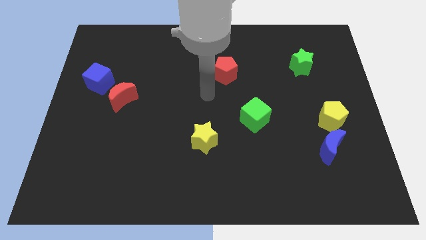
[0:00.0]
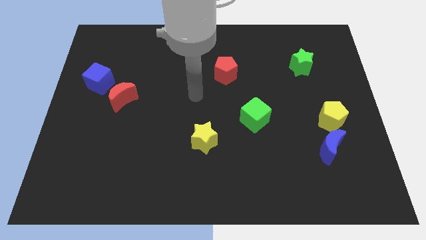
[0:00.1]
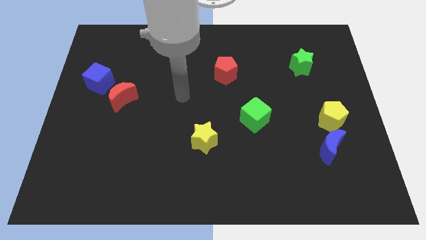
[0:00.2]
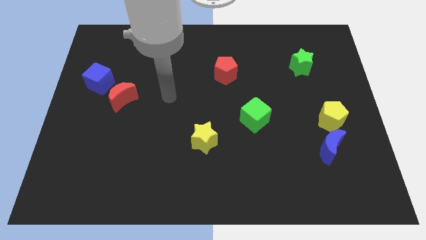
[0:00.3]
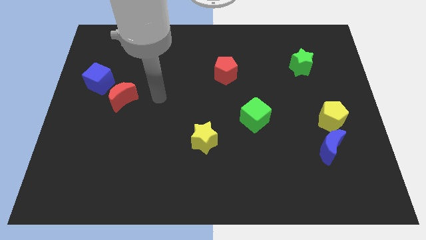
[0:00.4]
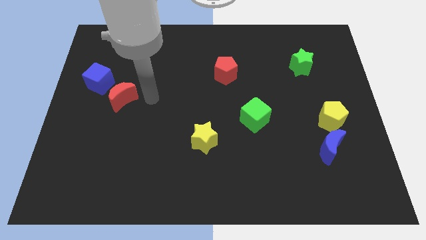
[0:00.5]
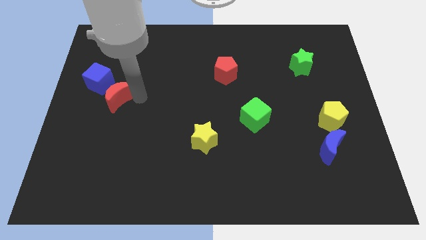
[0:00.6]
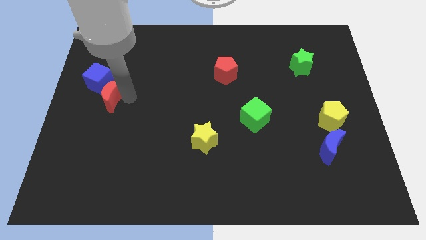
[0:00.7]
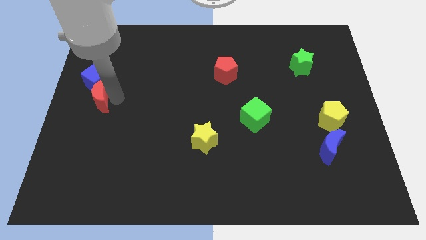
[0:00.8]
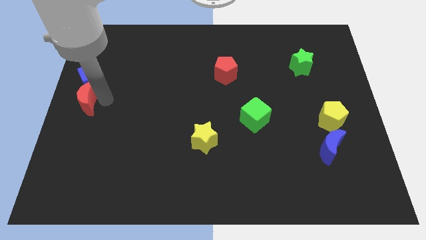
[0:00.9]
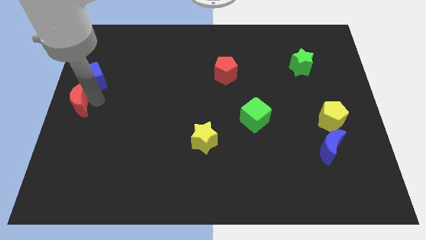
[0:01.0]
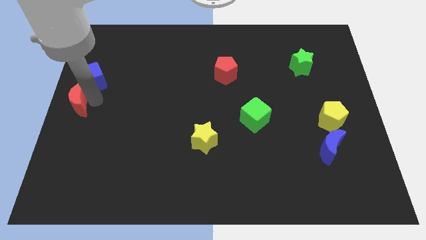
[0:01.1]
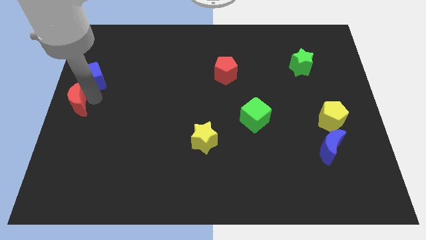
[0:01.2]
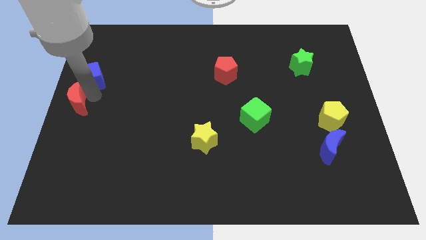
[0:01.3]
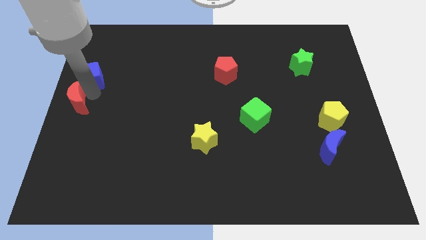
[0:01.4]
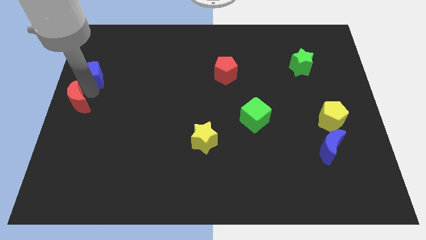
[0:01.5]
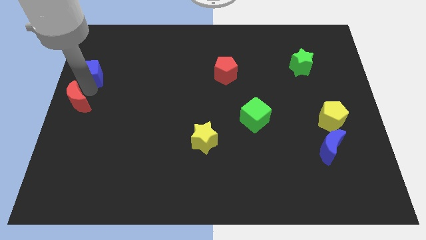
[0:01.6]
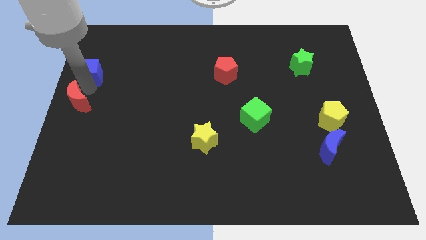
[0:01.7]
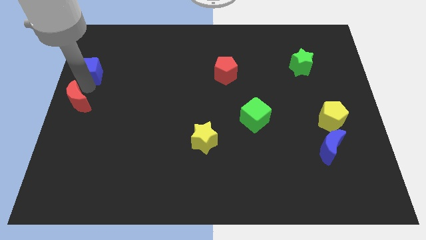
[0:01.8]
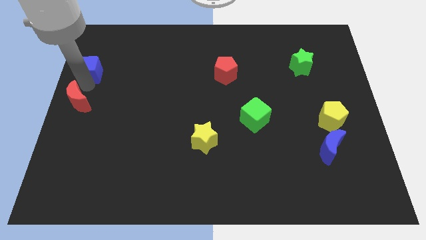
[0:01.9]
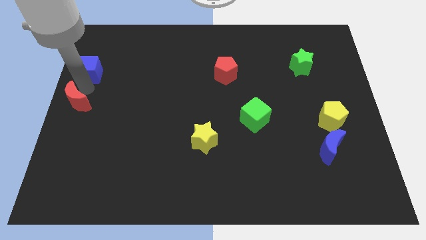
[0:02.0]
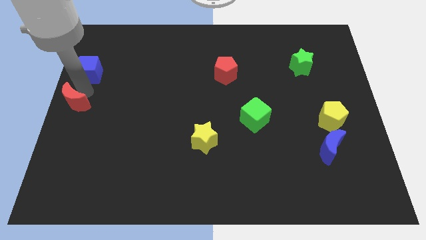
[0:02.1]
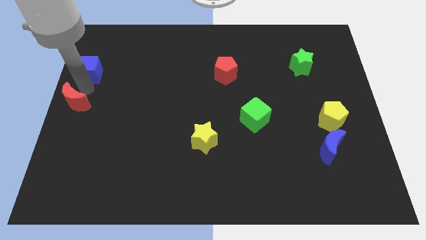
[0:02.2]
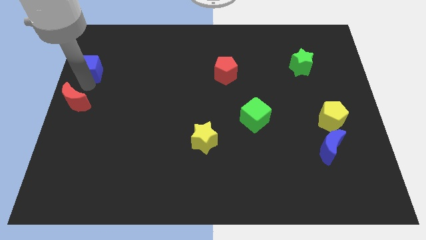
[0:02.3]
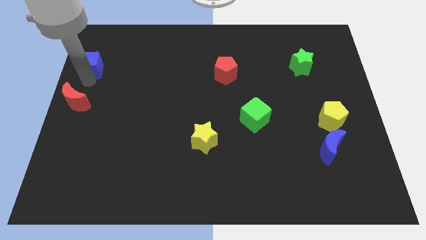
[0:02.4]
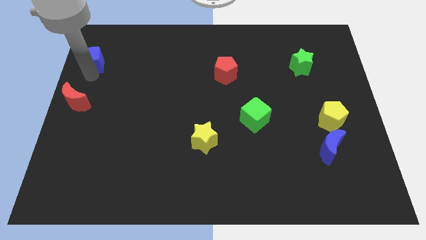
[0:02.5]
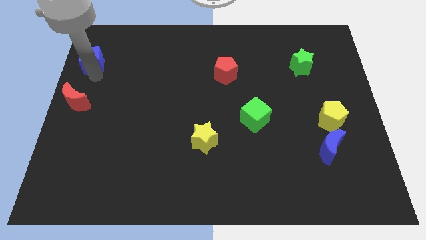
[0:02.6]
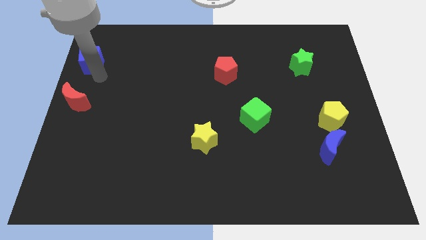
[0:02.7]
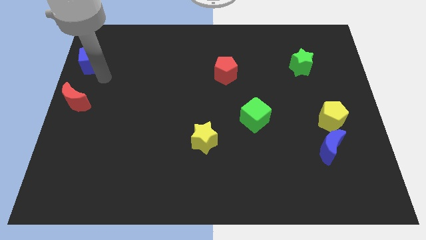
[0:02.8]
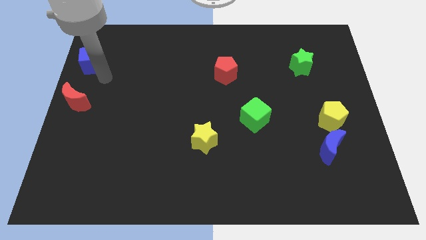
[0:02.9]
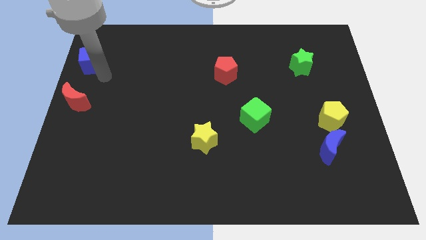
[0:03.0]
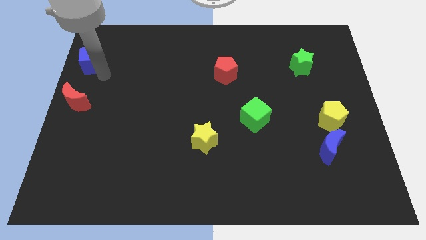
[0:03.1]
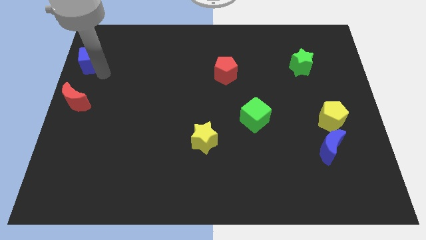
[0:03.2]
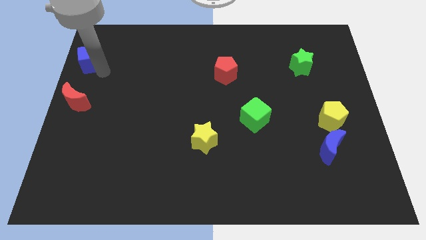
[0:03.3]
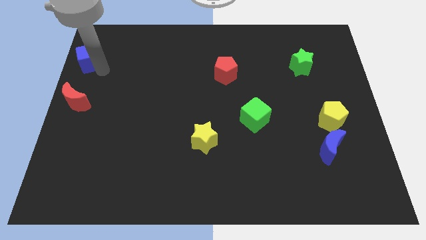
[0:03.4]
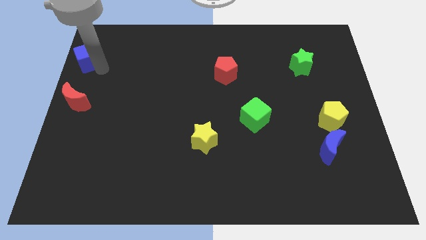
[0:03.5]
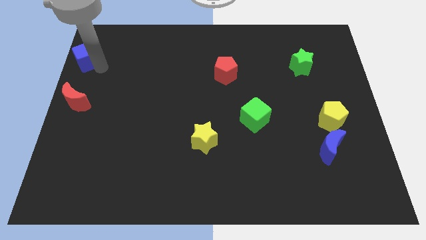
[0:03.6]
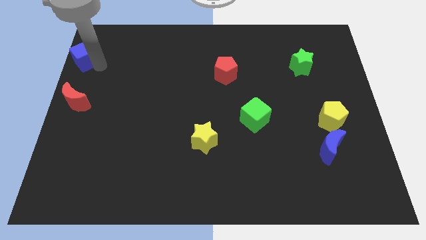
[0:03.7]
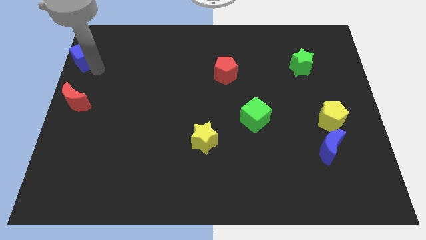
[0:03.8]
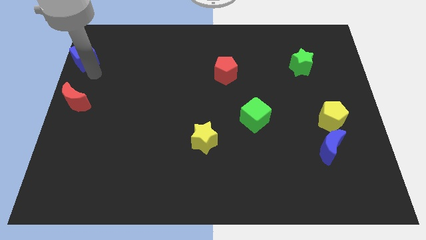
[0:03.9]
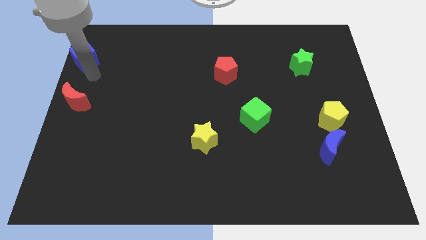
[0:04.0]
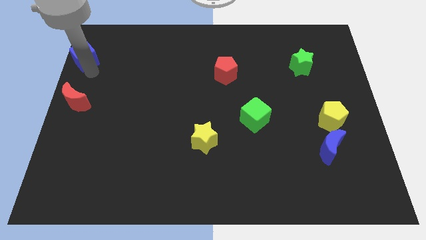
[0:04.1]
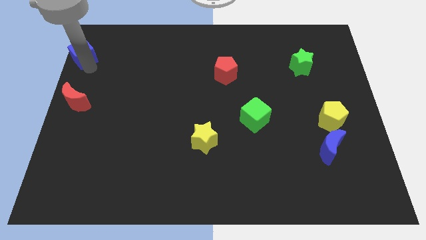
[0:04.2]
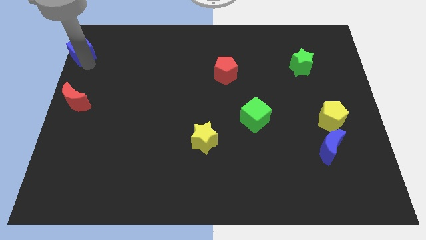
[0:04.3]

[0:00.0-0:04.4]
put the blue cube to the top left

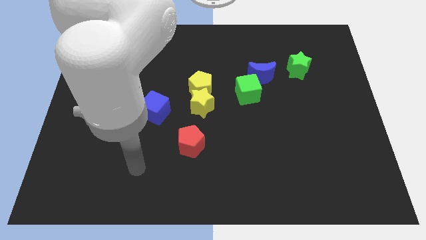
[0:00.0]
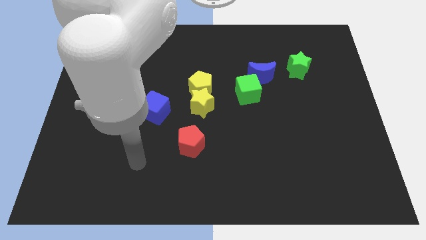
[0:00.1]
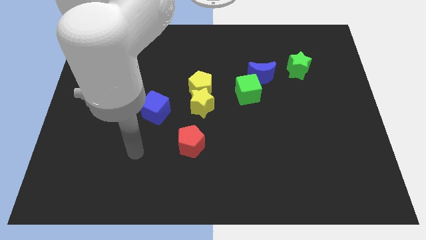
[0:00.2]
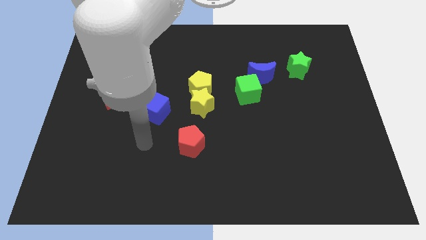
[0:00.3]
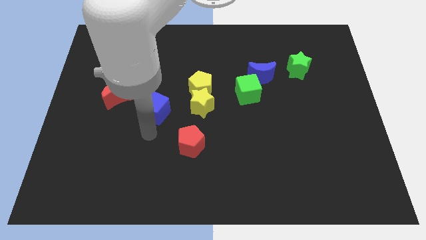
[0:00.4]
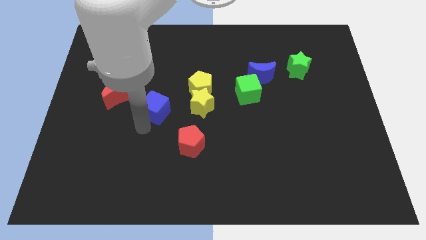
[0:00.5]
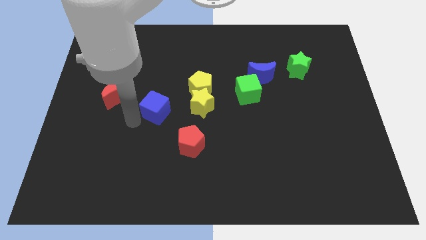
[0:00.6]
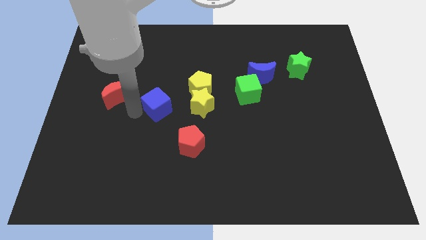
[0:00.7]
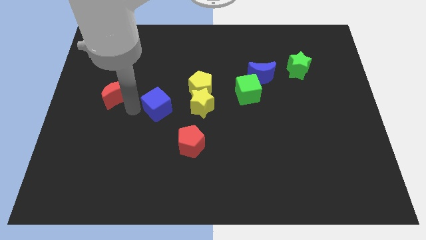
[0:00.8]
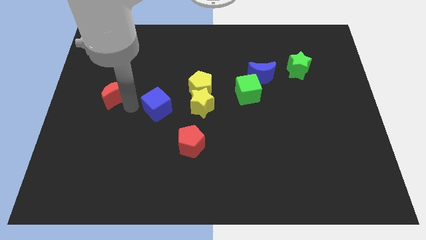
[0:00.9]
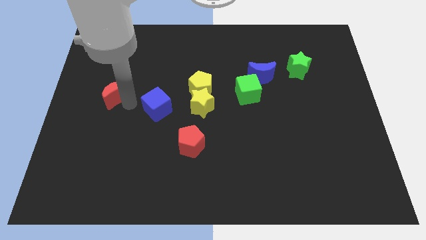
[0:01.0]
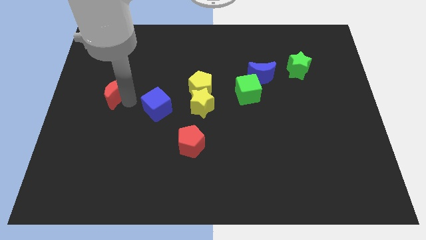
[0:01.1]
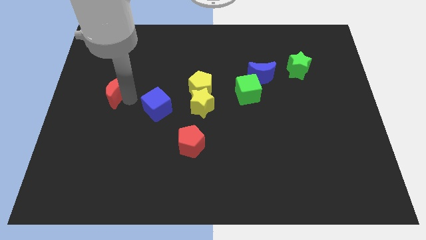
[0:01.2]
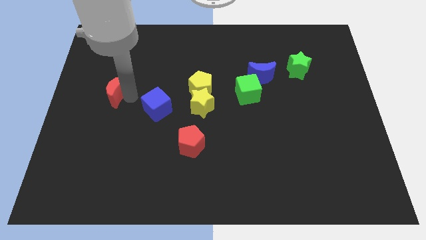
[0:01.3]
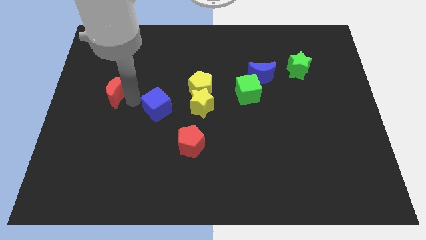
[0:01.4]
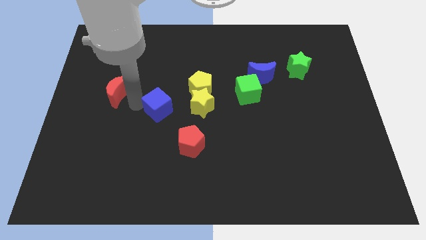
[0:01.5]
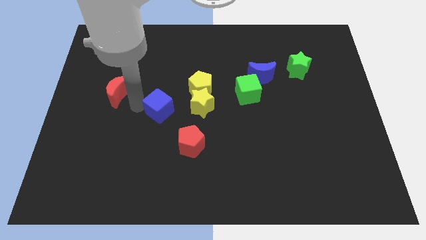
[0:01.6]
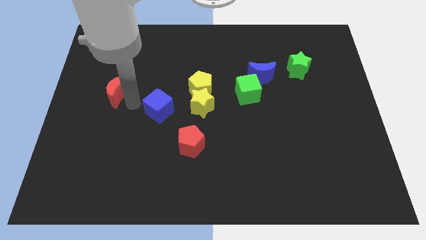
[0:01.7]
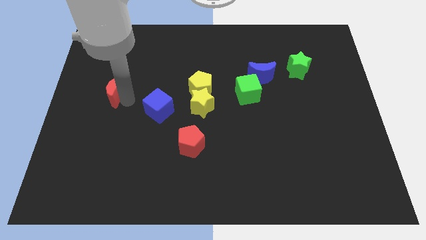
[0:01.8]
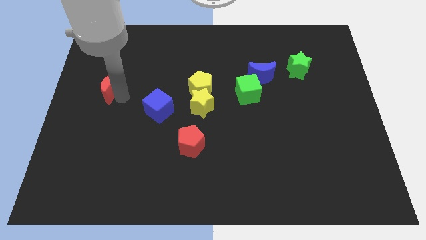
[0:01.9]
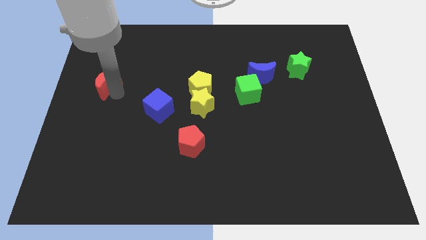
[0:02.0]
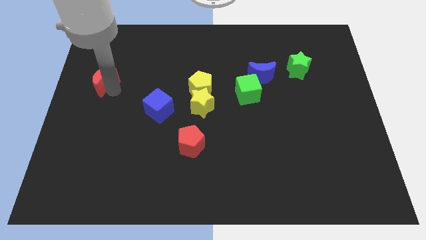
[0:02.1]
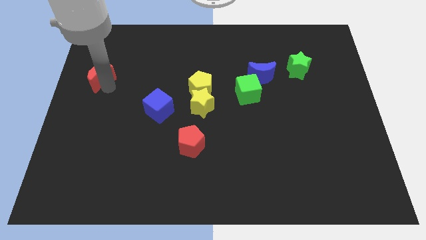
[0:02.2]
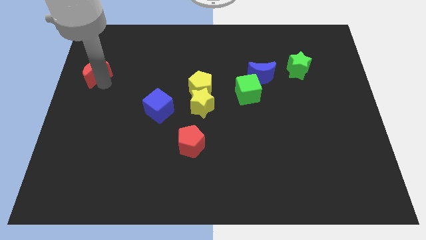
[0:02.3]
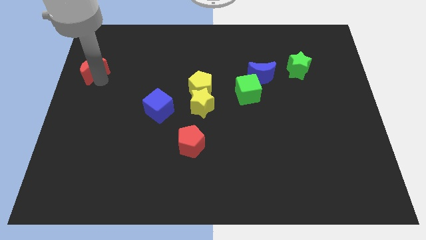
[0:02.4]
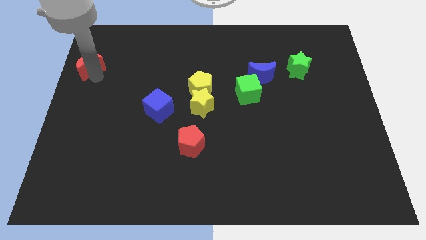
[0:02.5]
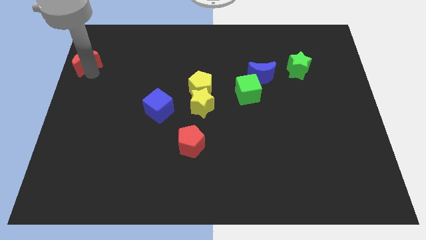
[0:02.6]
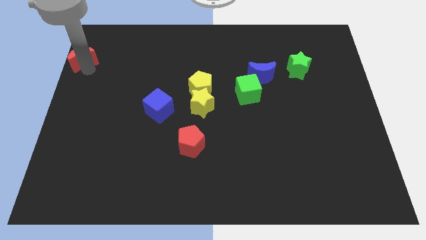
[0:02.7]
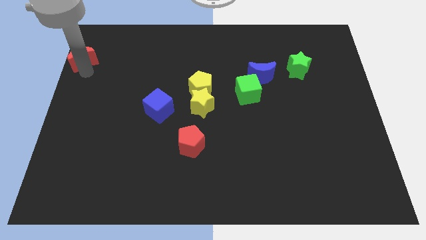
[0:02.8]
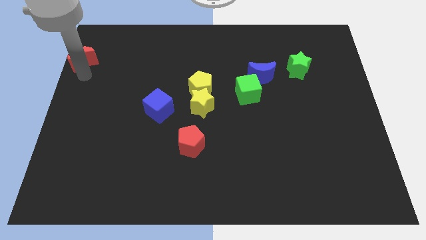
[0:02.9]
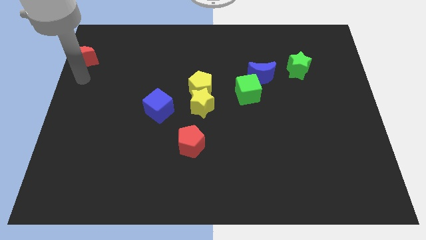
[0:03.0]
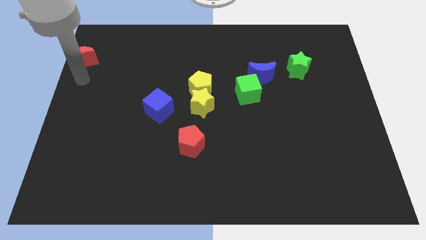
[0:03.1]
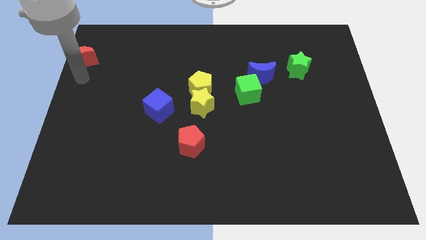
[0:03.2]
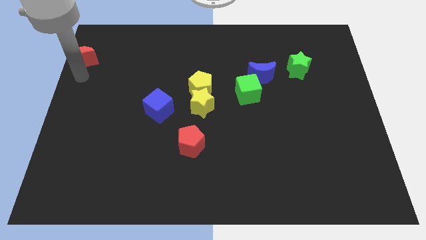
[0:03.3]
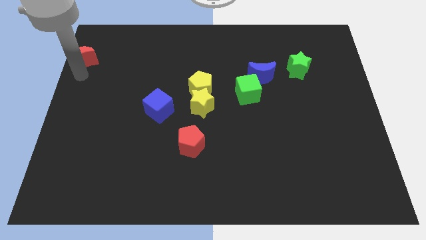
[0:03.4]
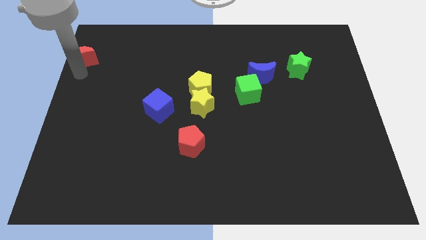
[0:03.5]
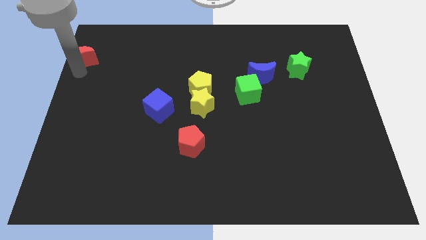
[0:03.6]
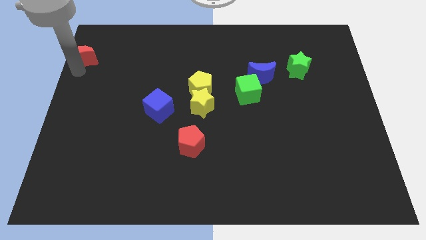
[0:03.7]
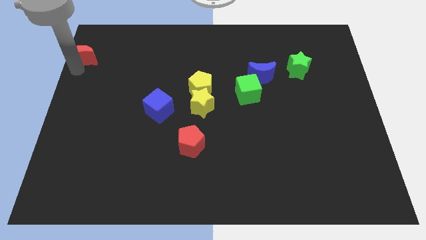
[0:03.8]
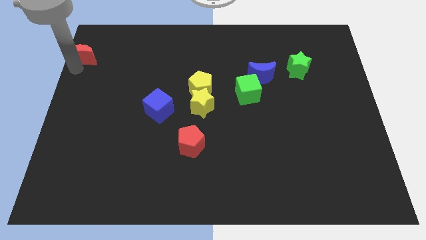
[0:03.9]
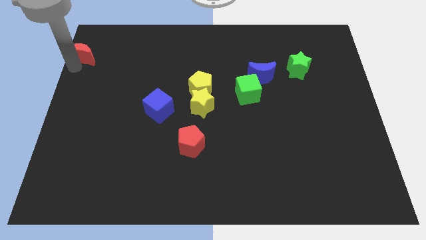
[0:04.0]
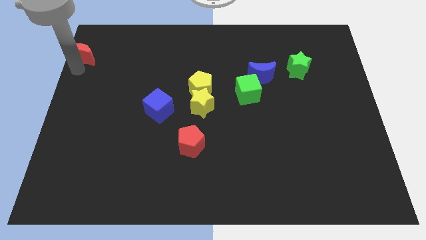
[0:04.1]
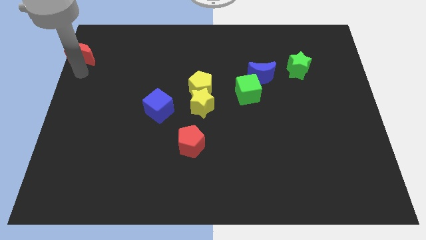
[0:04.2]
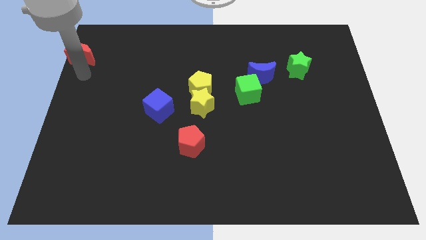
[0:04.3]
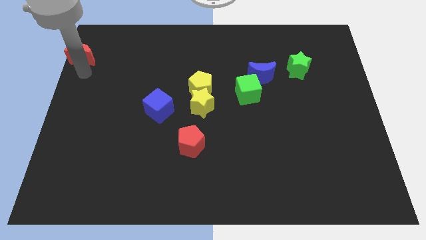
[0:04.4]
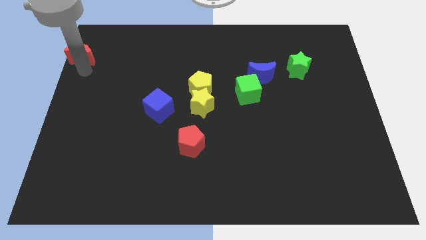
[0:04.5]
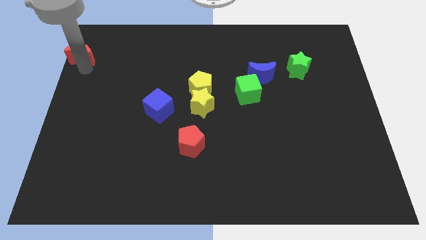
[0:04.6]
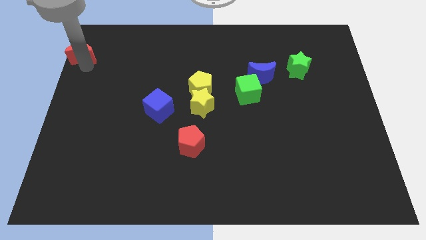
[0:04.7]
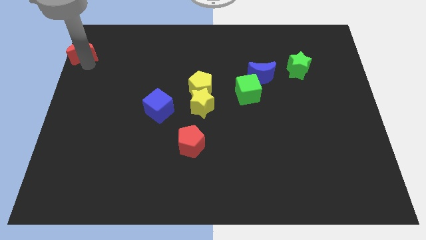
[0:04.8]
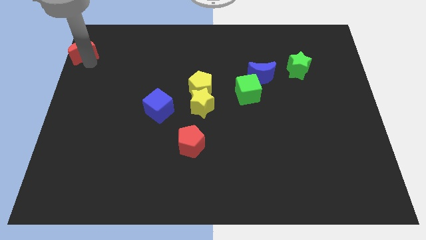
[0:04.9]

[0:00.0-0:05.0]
push the red moon to the top left of the board
